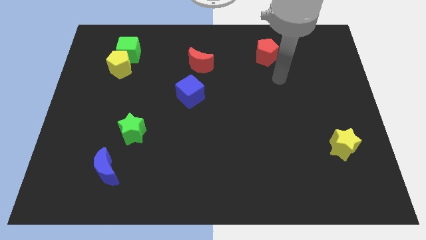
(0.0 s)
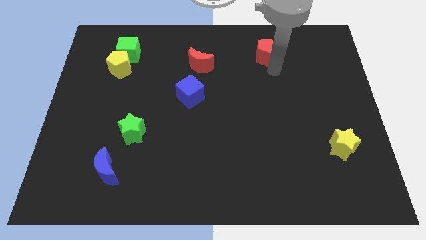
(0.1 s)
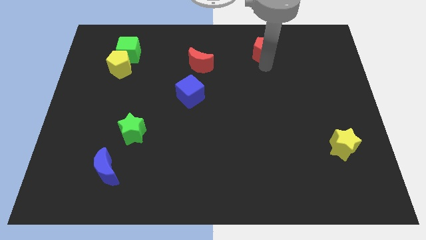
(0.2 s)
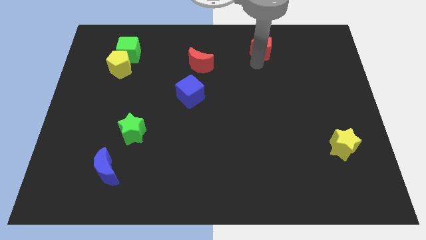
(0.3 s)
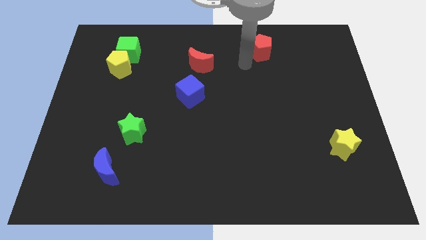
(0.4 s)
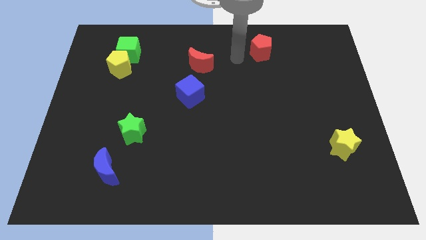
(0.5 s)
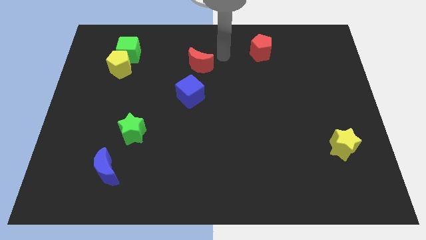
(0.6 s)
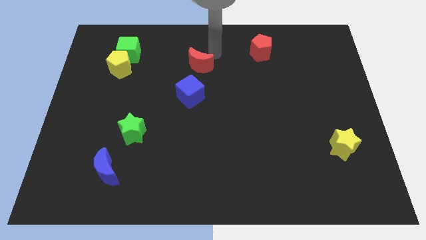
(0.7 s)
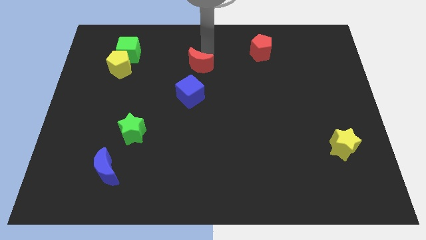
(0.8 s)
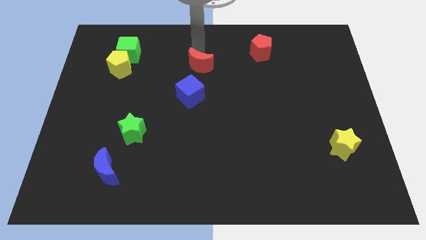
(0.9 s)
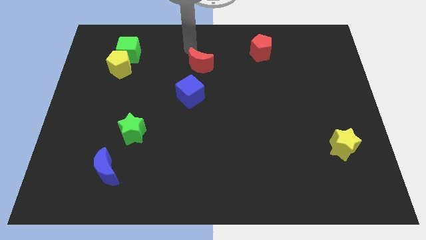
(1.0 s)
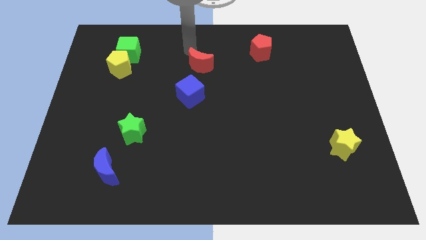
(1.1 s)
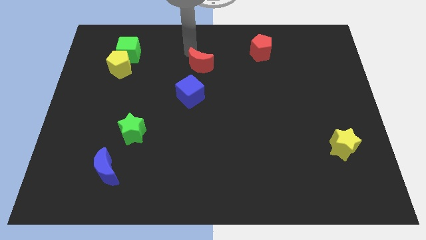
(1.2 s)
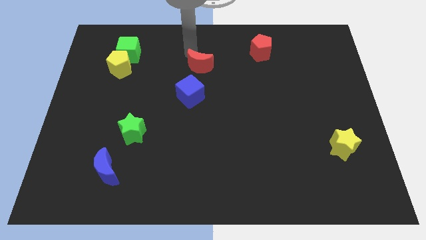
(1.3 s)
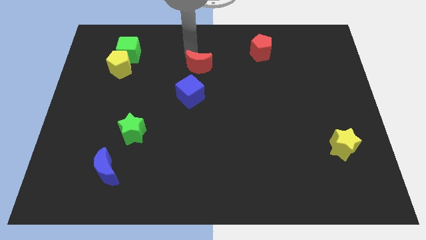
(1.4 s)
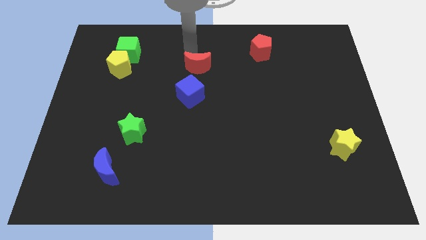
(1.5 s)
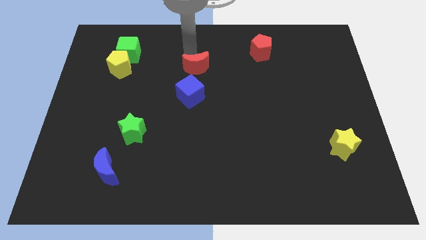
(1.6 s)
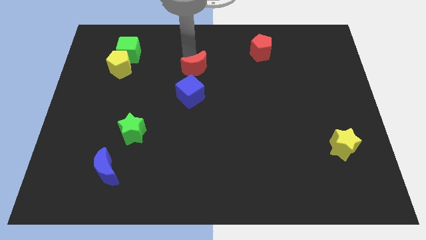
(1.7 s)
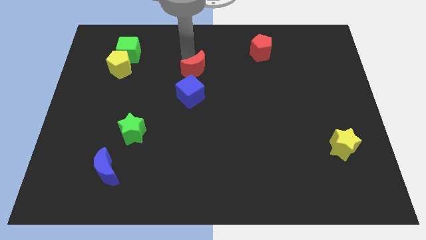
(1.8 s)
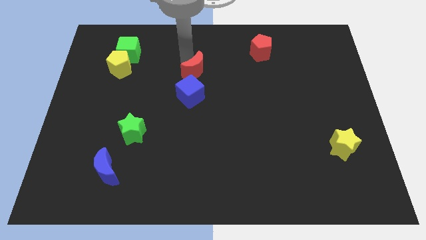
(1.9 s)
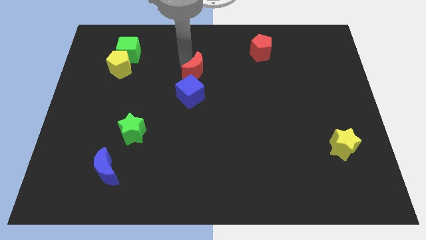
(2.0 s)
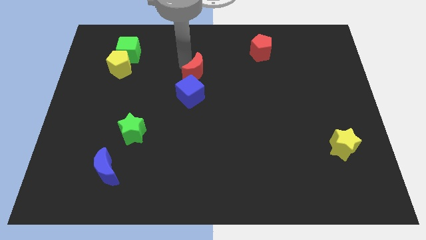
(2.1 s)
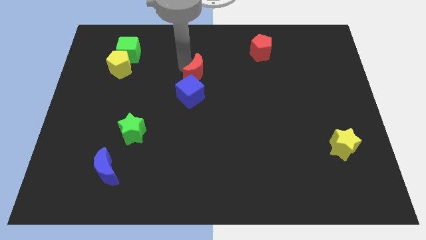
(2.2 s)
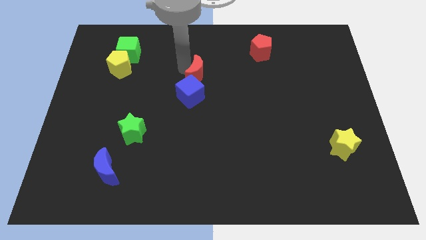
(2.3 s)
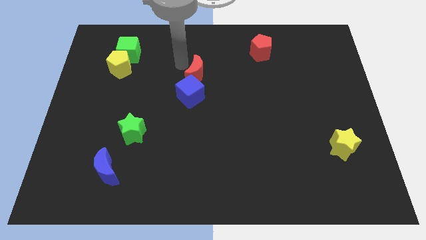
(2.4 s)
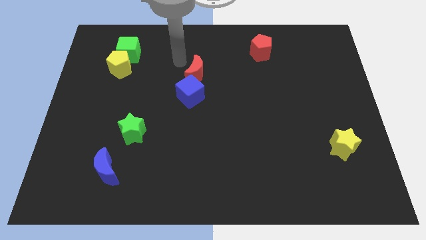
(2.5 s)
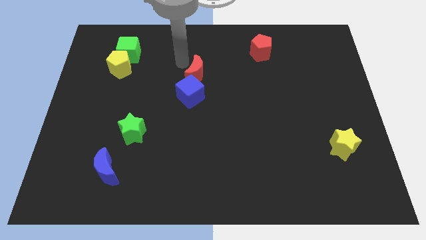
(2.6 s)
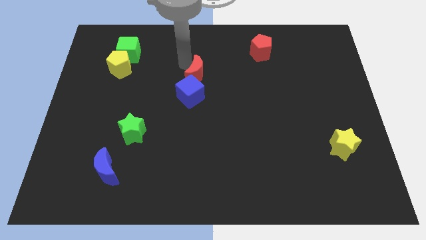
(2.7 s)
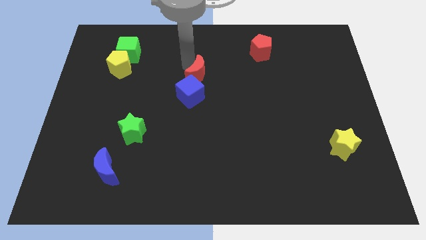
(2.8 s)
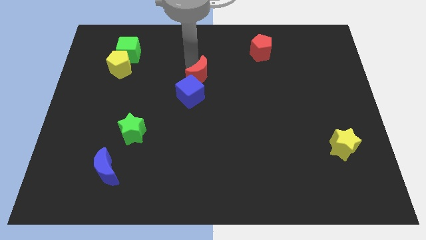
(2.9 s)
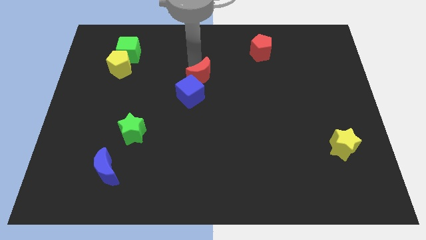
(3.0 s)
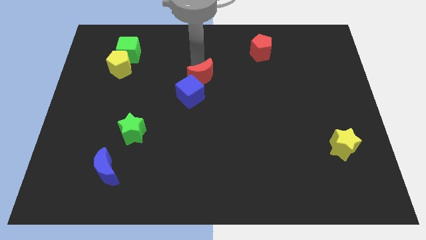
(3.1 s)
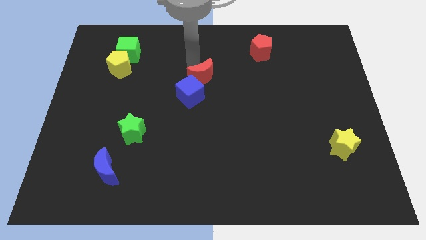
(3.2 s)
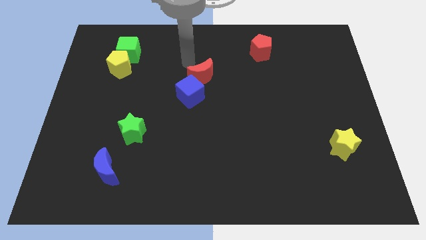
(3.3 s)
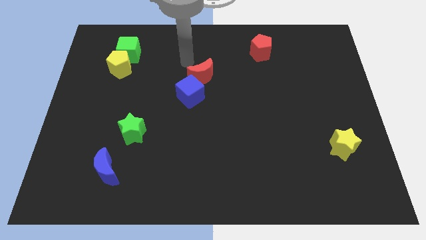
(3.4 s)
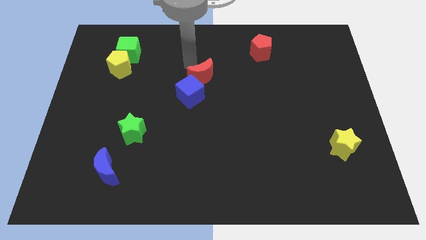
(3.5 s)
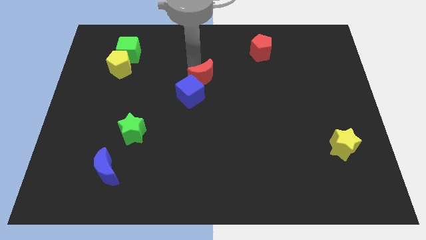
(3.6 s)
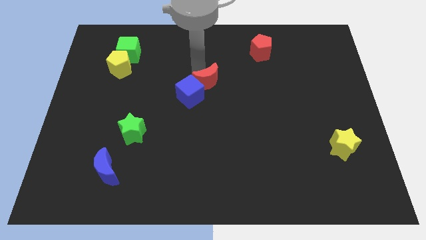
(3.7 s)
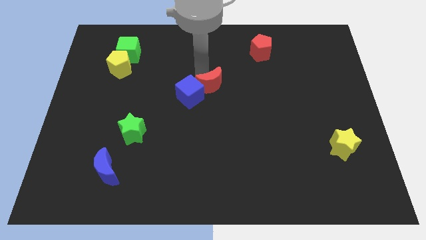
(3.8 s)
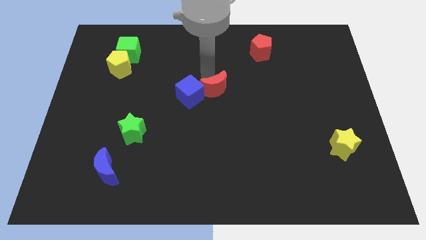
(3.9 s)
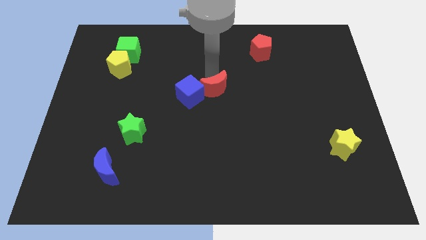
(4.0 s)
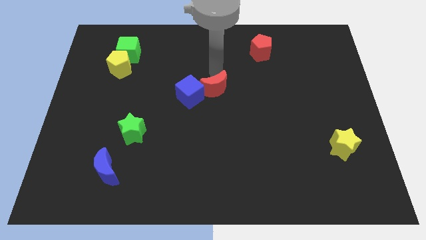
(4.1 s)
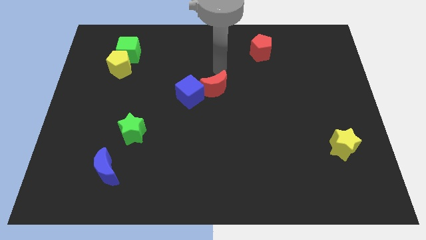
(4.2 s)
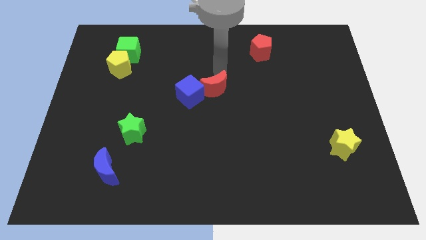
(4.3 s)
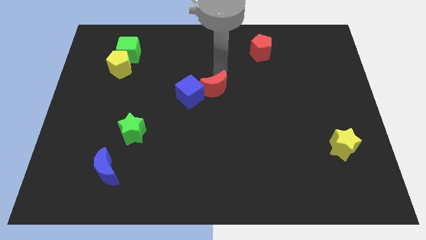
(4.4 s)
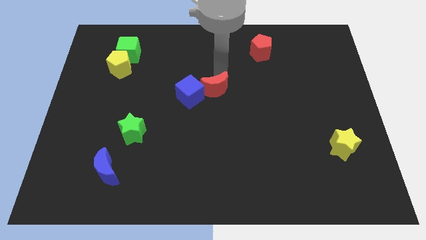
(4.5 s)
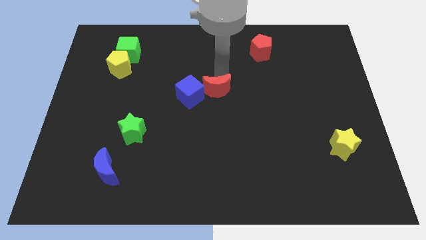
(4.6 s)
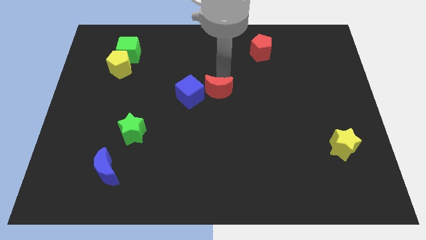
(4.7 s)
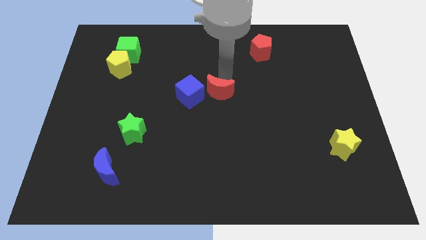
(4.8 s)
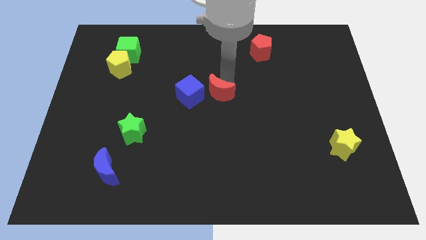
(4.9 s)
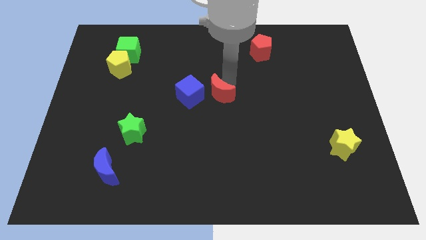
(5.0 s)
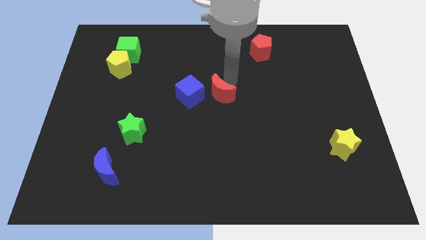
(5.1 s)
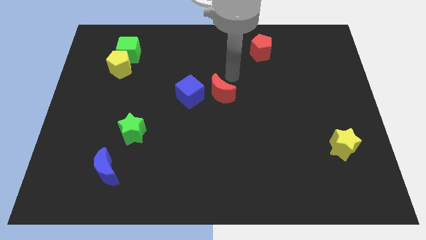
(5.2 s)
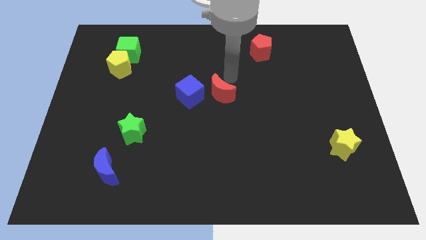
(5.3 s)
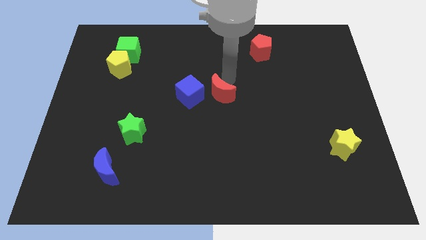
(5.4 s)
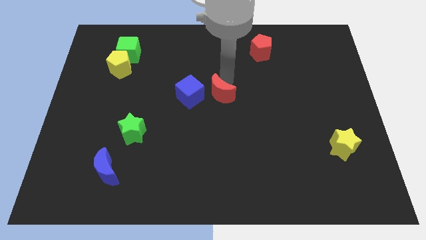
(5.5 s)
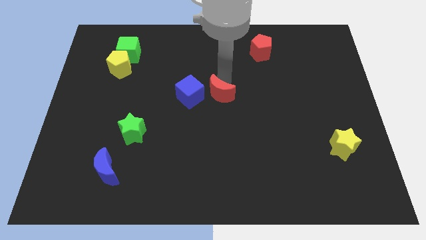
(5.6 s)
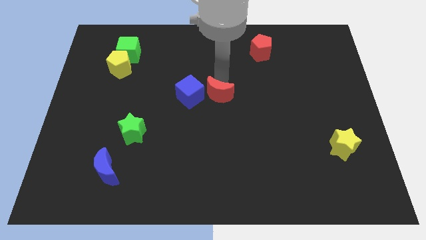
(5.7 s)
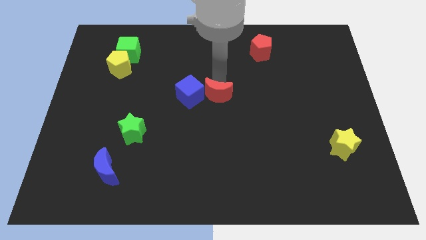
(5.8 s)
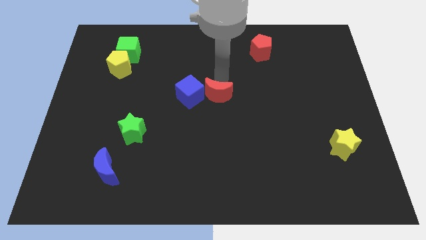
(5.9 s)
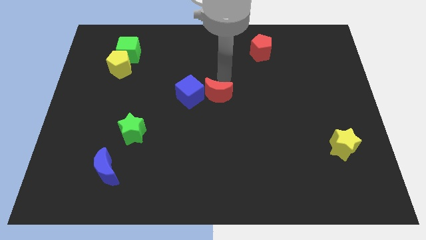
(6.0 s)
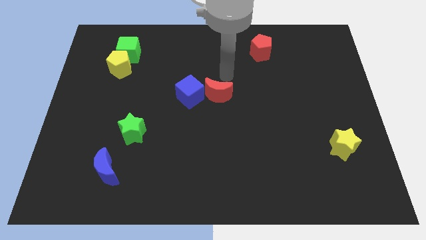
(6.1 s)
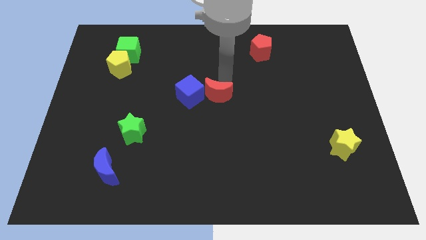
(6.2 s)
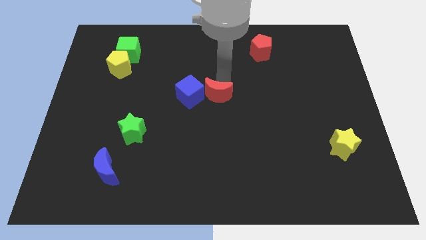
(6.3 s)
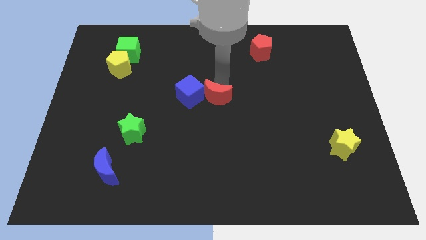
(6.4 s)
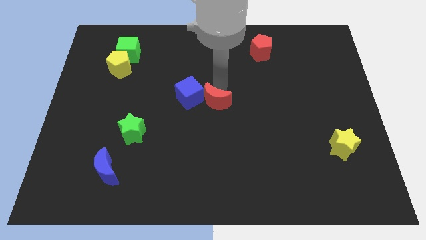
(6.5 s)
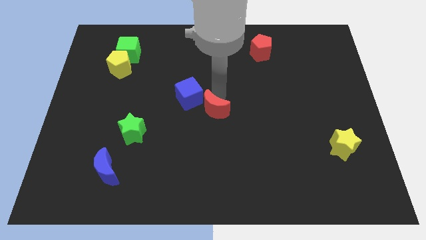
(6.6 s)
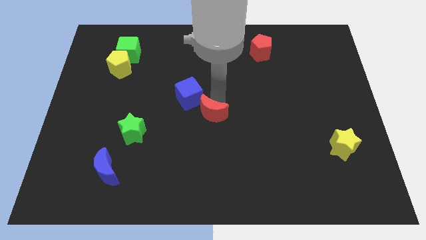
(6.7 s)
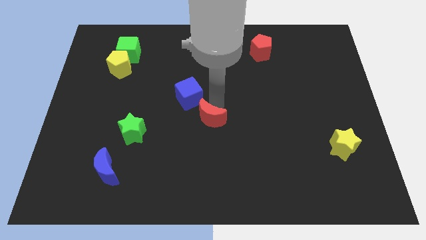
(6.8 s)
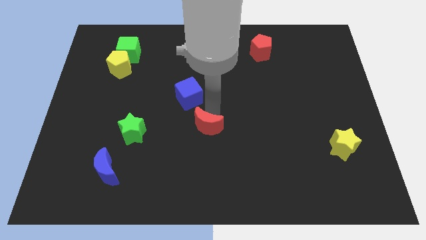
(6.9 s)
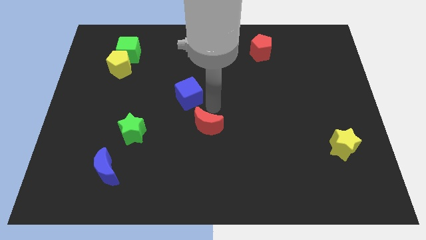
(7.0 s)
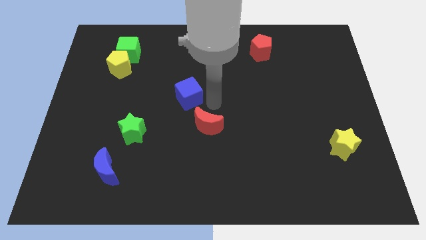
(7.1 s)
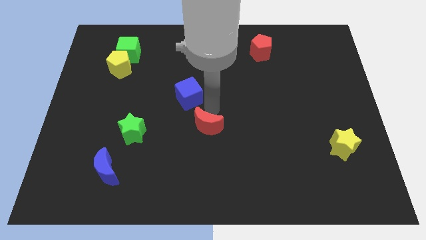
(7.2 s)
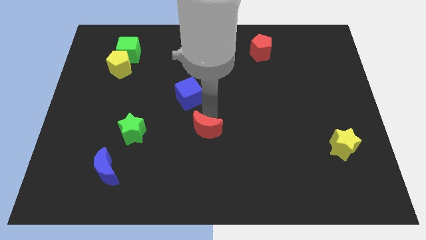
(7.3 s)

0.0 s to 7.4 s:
slide the red moon downwards

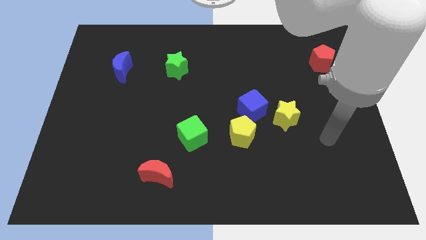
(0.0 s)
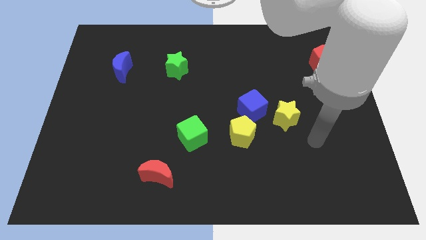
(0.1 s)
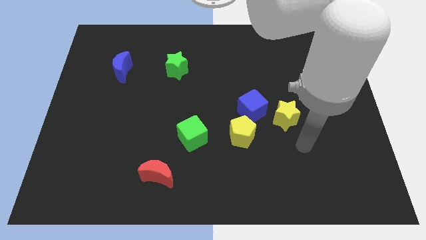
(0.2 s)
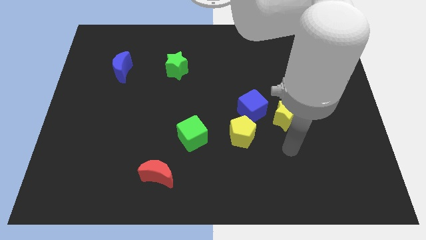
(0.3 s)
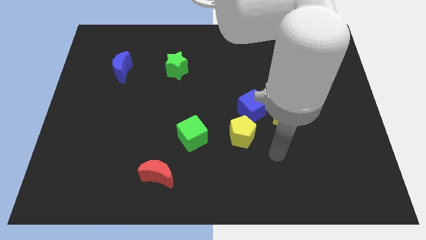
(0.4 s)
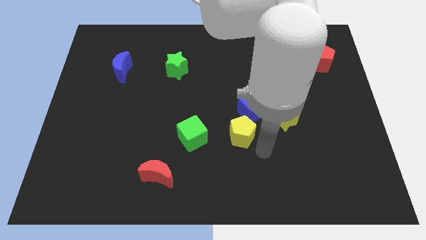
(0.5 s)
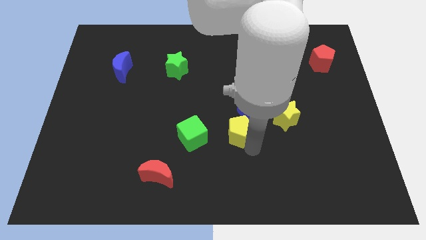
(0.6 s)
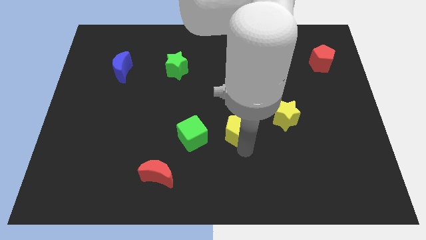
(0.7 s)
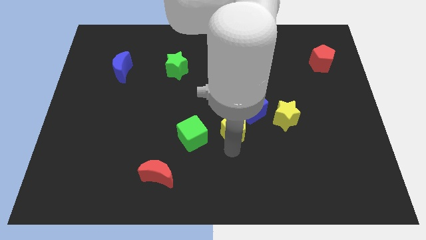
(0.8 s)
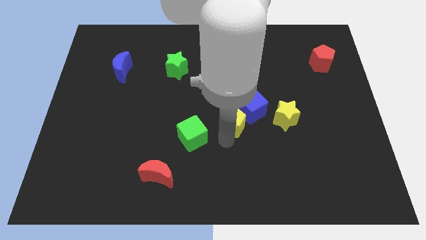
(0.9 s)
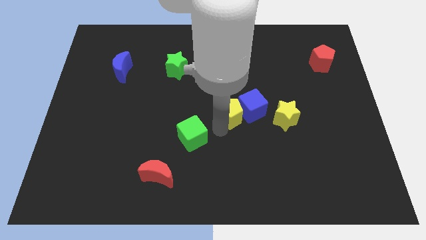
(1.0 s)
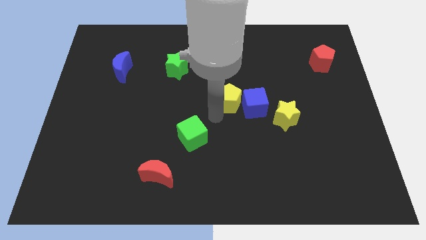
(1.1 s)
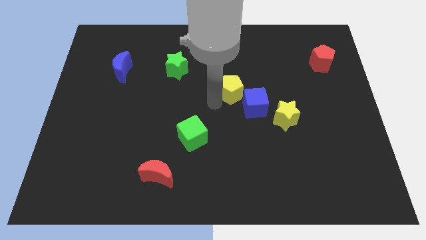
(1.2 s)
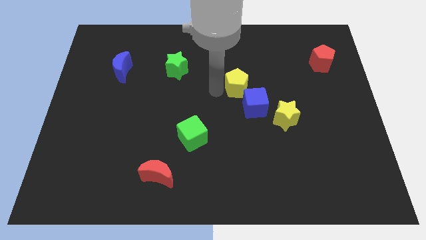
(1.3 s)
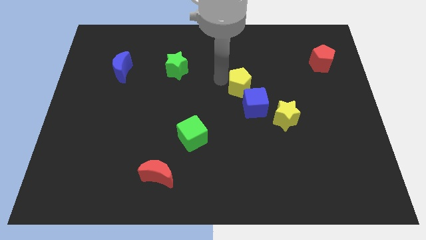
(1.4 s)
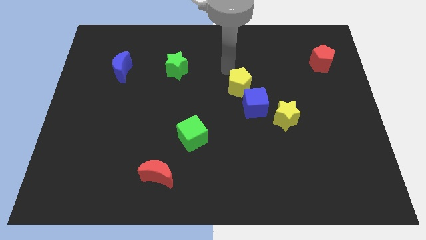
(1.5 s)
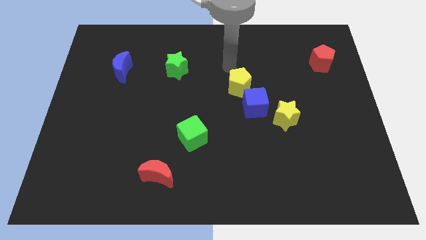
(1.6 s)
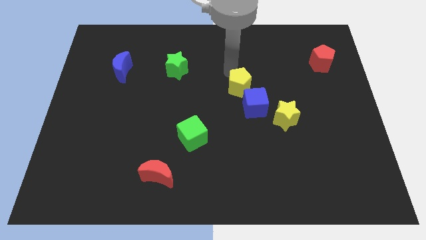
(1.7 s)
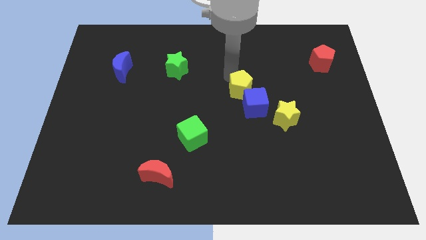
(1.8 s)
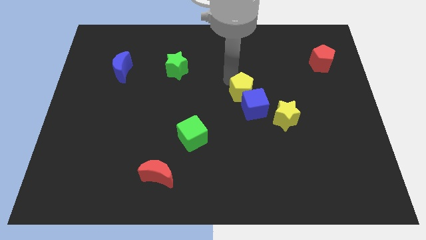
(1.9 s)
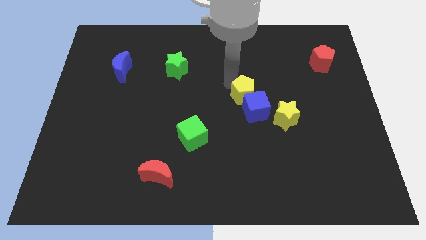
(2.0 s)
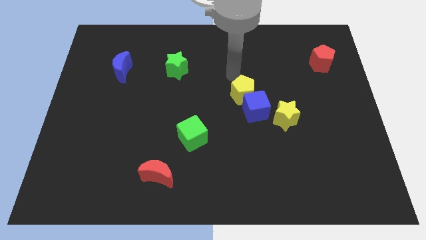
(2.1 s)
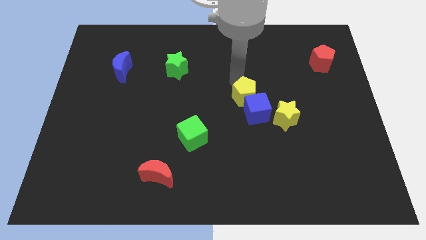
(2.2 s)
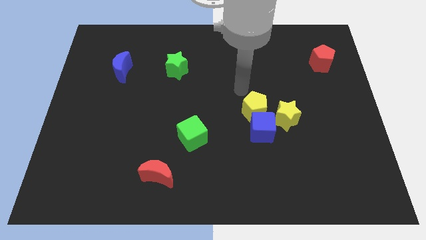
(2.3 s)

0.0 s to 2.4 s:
slide the yellow pentagon diagonally upwards and to the right slightly
